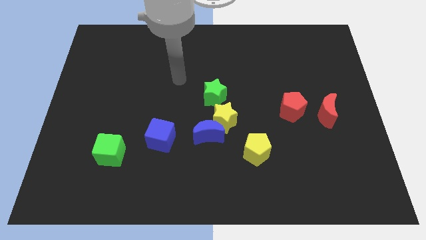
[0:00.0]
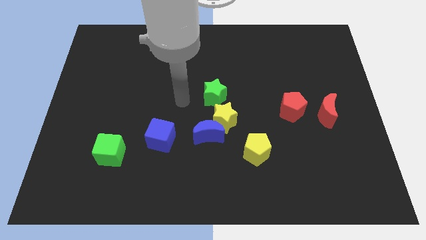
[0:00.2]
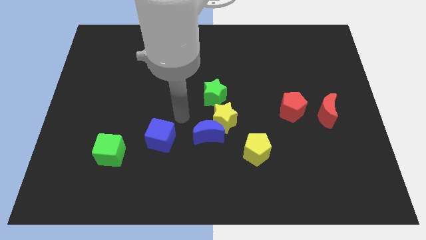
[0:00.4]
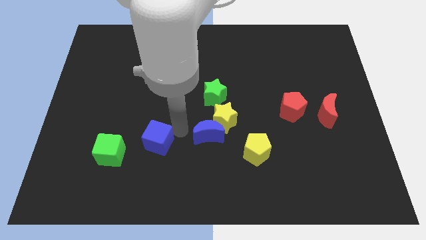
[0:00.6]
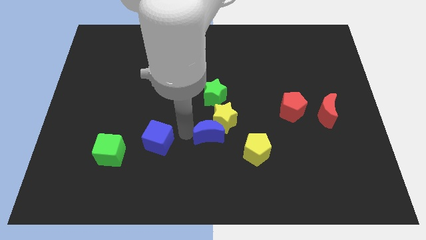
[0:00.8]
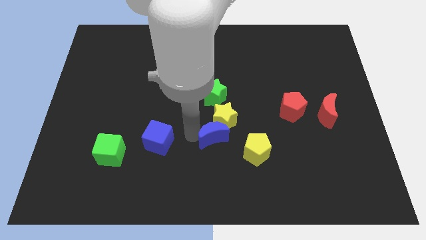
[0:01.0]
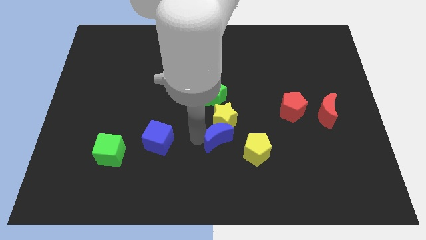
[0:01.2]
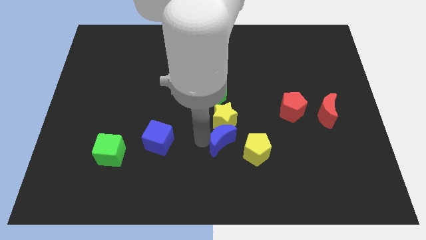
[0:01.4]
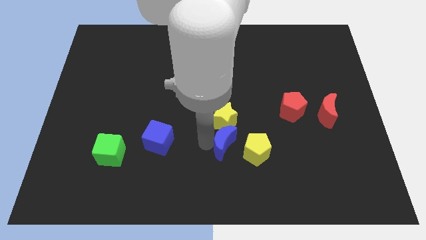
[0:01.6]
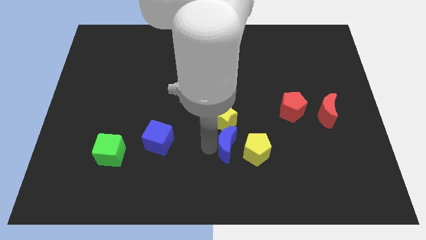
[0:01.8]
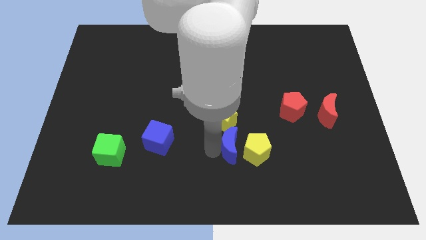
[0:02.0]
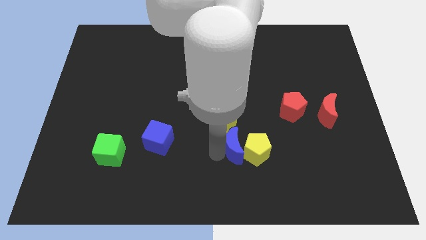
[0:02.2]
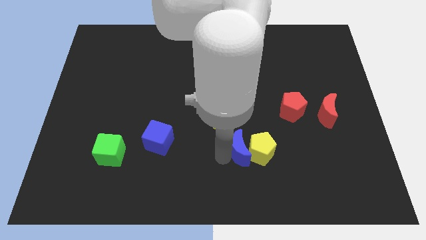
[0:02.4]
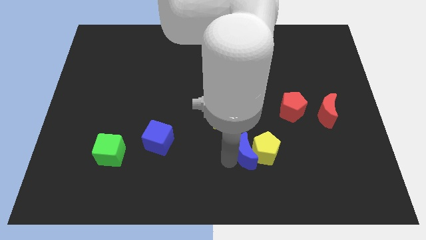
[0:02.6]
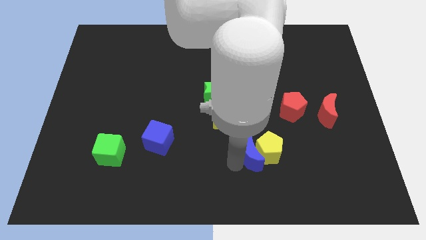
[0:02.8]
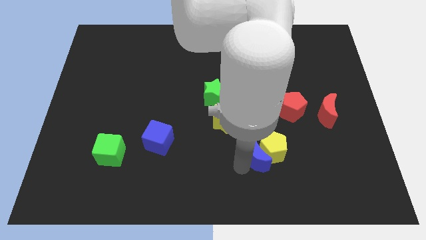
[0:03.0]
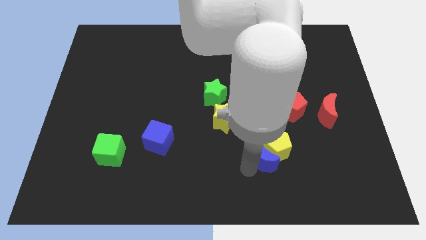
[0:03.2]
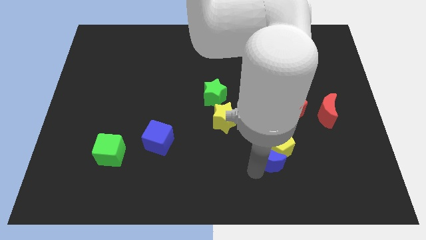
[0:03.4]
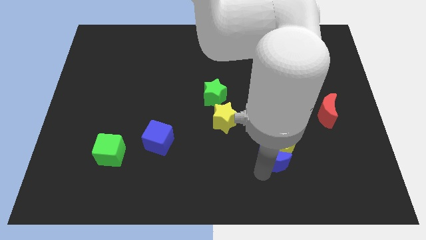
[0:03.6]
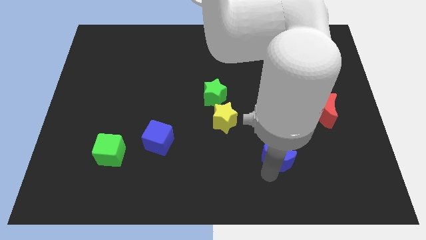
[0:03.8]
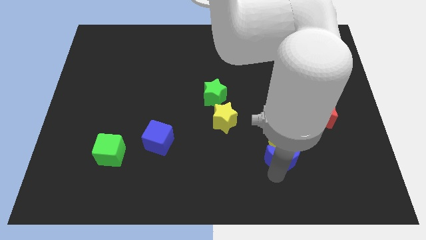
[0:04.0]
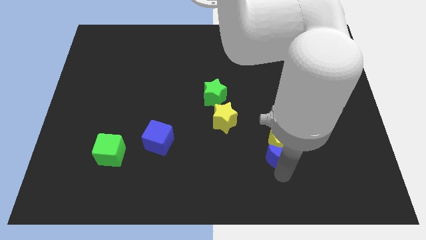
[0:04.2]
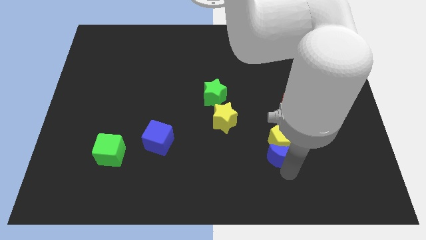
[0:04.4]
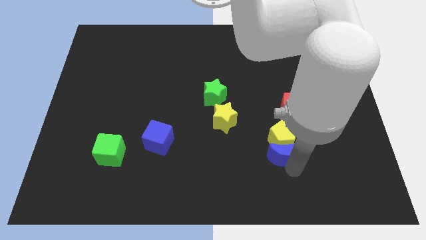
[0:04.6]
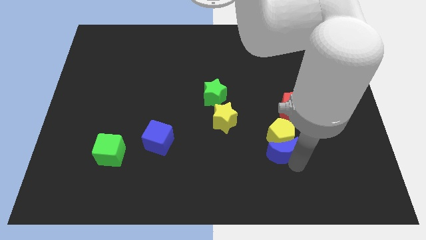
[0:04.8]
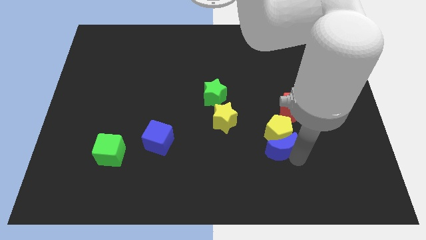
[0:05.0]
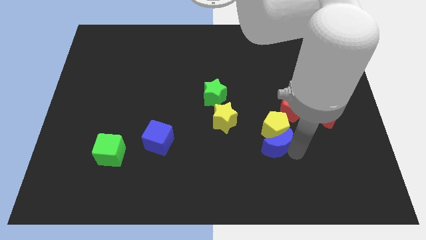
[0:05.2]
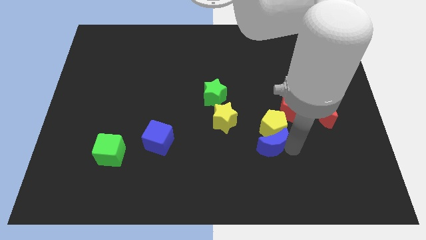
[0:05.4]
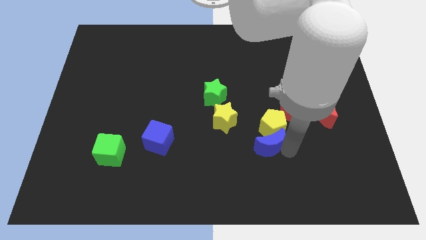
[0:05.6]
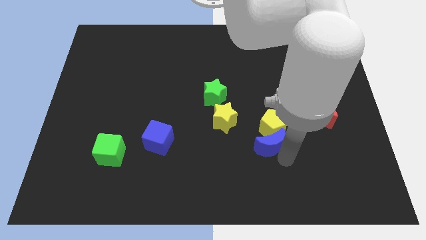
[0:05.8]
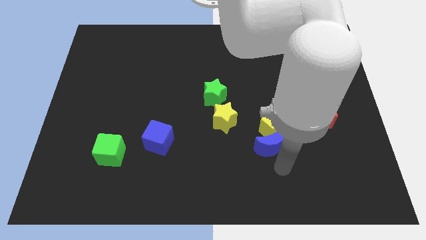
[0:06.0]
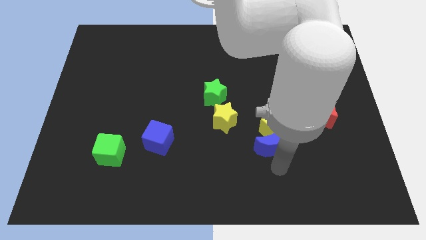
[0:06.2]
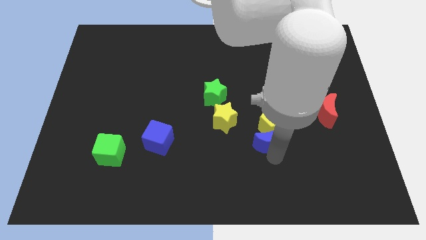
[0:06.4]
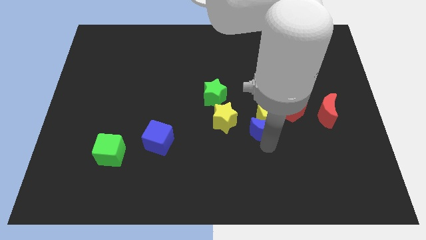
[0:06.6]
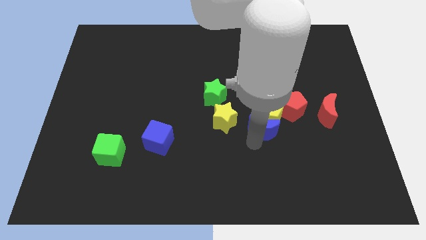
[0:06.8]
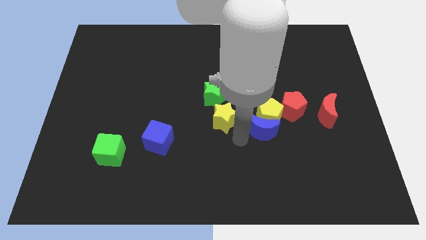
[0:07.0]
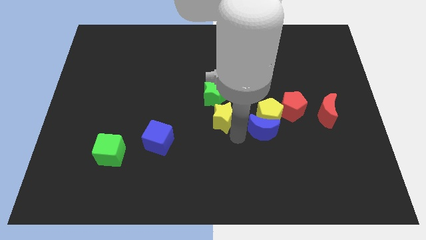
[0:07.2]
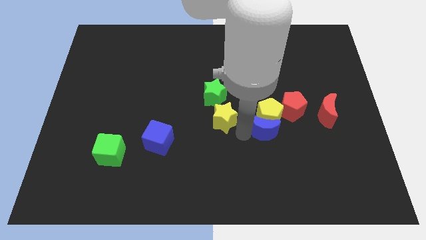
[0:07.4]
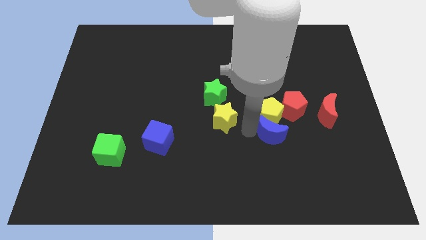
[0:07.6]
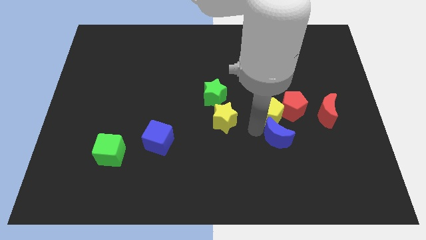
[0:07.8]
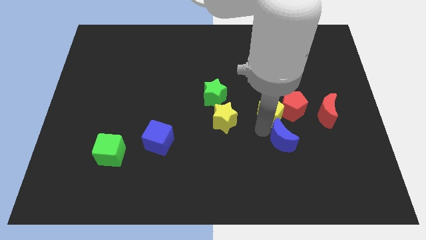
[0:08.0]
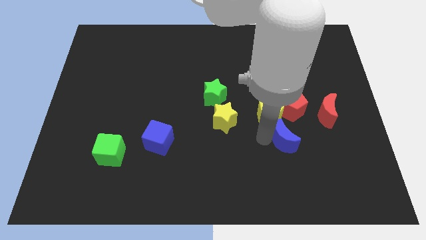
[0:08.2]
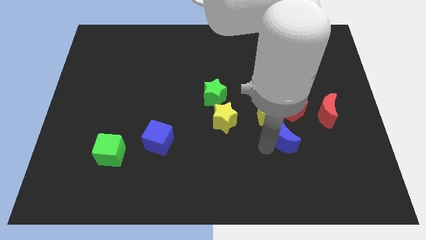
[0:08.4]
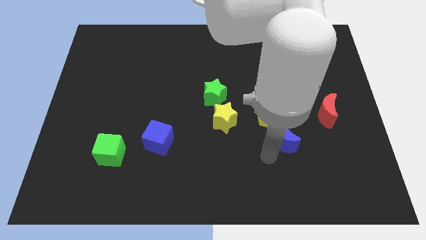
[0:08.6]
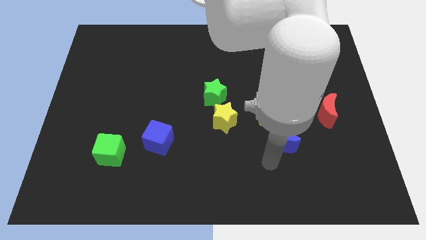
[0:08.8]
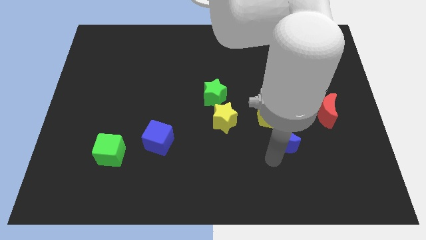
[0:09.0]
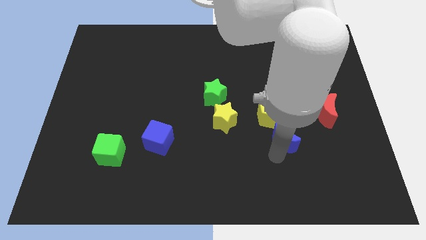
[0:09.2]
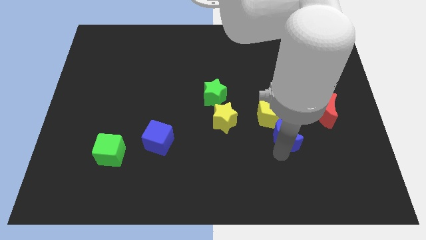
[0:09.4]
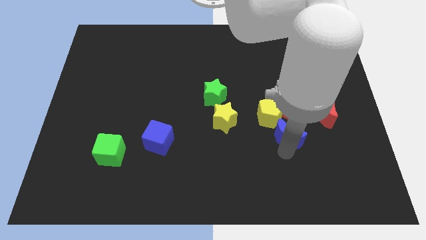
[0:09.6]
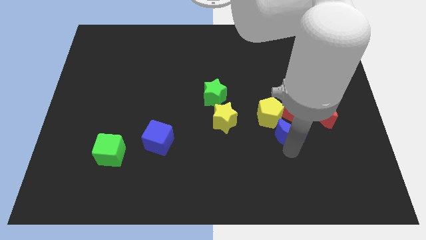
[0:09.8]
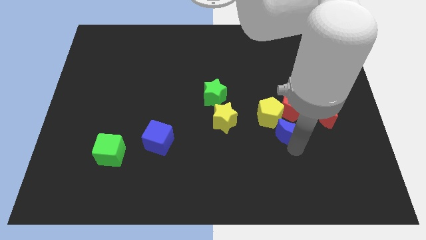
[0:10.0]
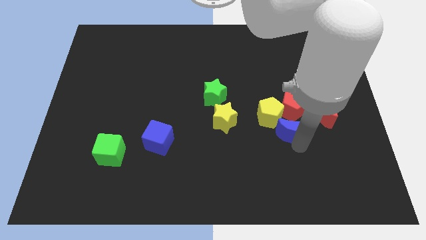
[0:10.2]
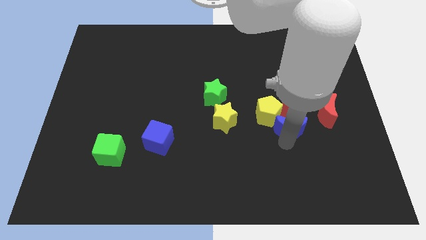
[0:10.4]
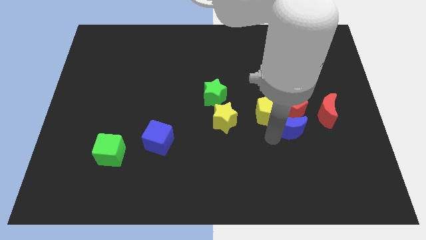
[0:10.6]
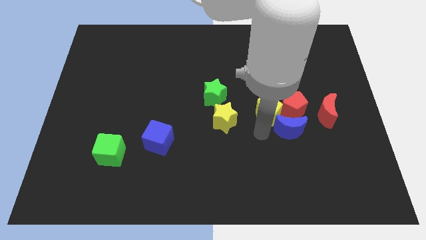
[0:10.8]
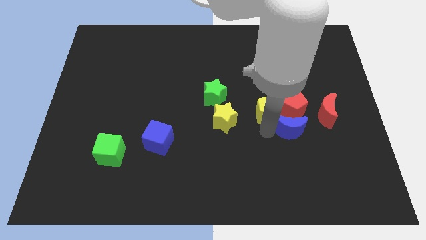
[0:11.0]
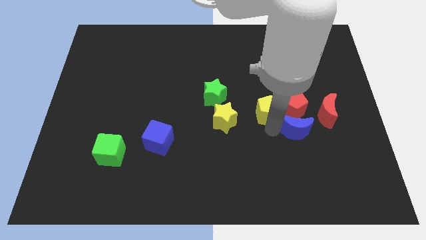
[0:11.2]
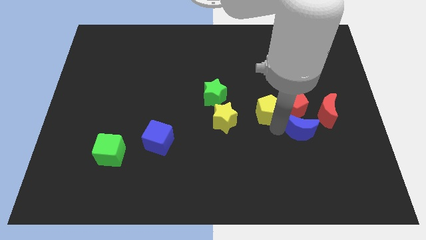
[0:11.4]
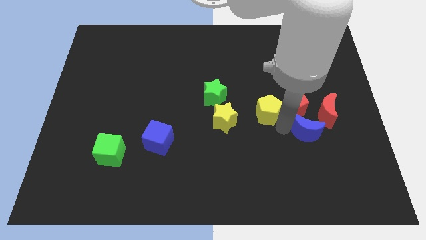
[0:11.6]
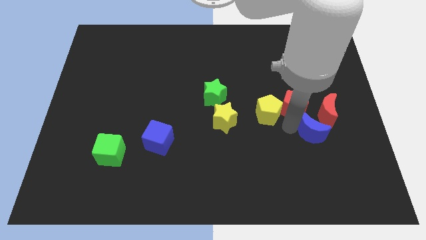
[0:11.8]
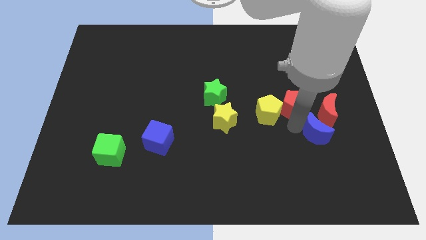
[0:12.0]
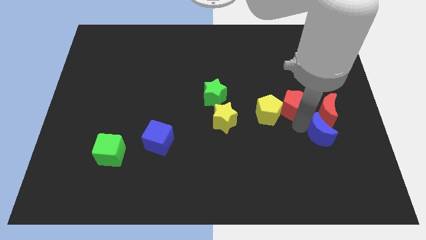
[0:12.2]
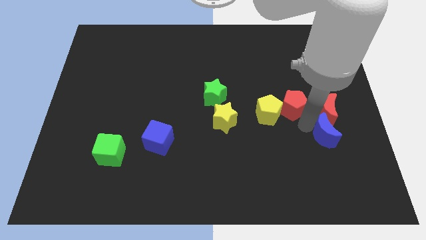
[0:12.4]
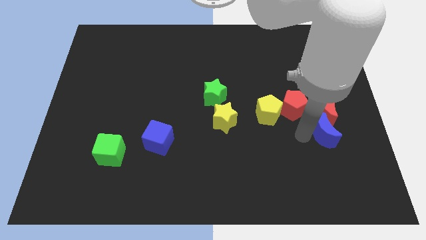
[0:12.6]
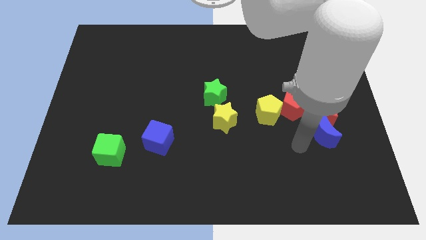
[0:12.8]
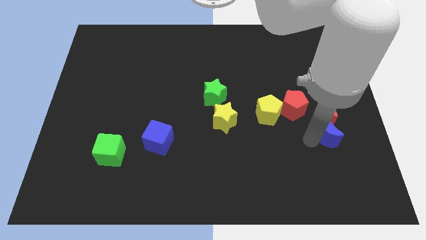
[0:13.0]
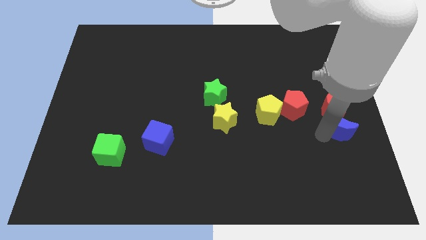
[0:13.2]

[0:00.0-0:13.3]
push the blue moon to the right side

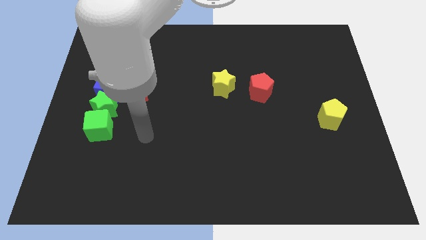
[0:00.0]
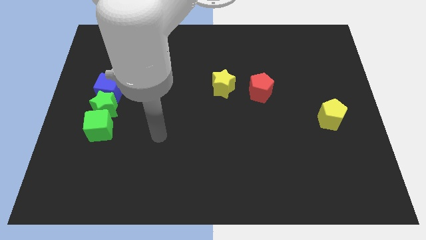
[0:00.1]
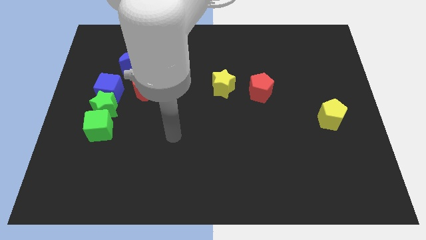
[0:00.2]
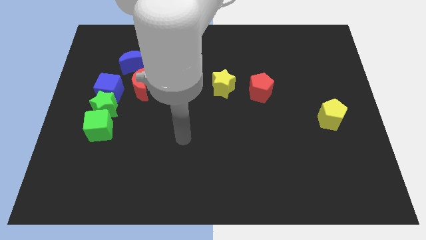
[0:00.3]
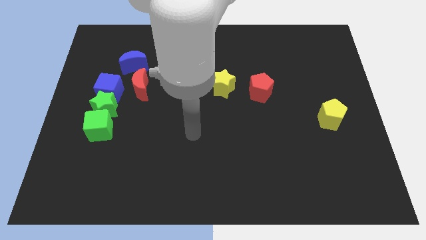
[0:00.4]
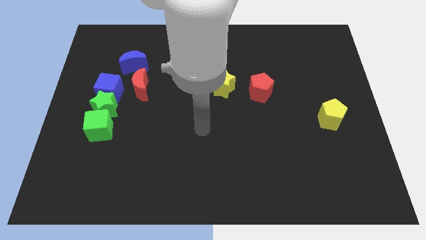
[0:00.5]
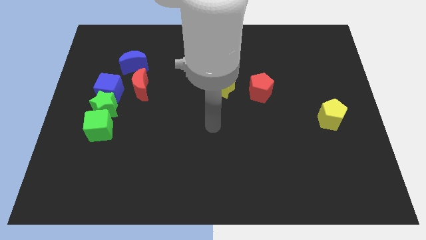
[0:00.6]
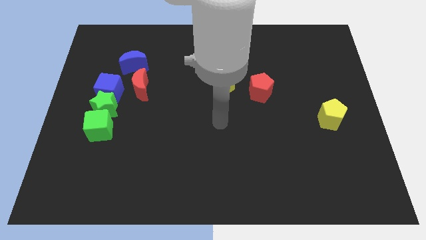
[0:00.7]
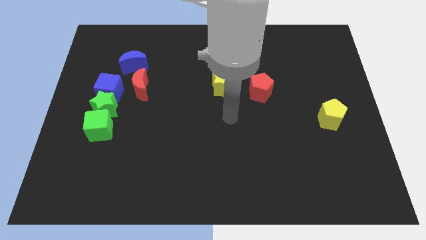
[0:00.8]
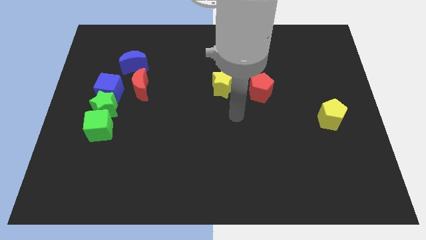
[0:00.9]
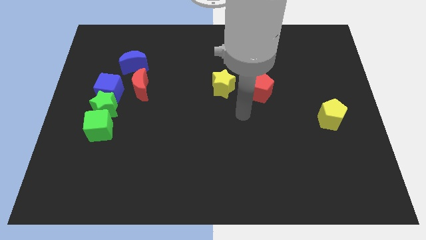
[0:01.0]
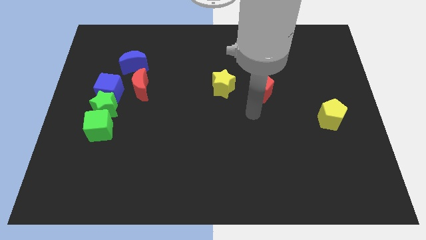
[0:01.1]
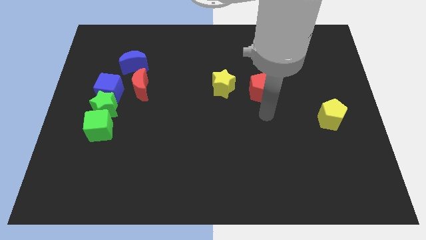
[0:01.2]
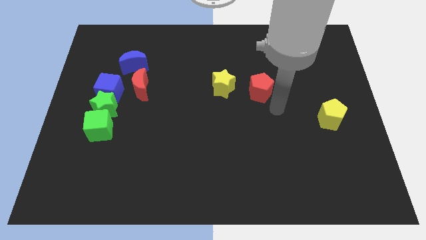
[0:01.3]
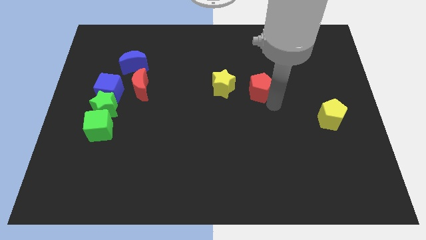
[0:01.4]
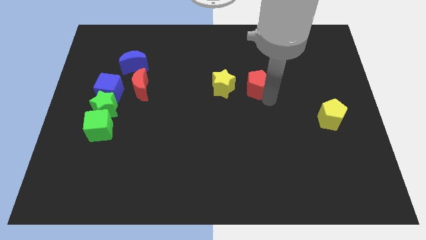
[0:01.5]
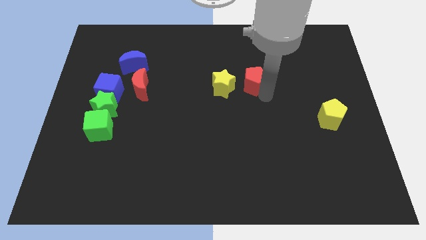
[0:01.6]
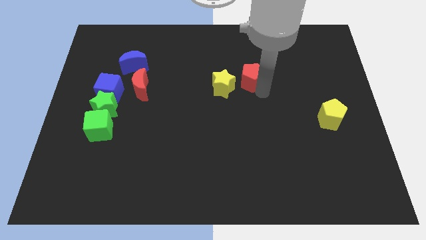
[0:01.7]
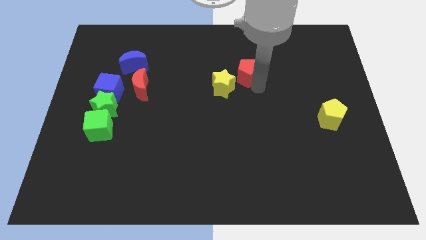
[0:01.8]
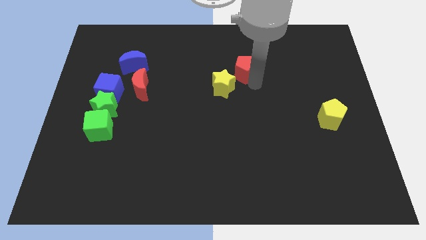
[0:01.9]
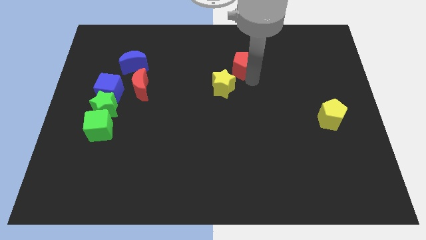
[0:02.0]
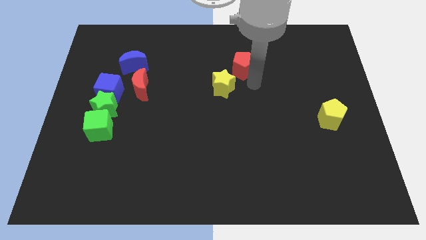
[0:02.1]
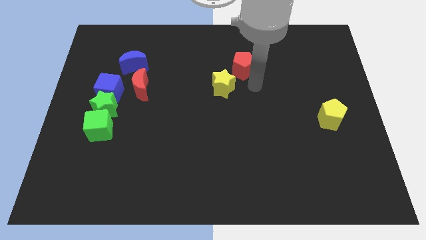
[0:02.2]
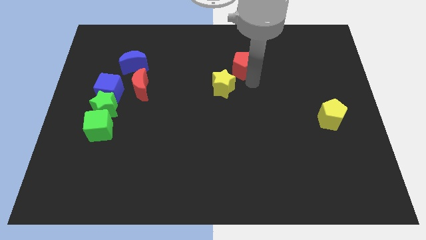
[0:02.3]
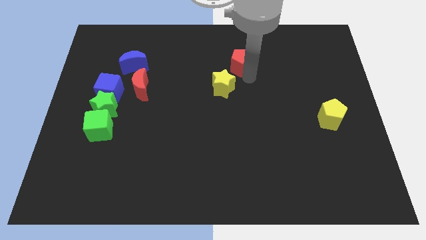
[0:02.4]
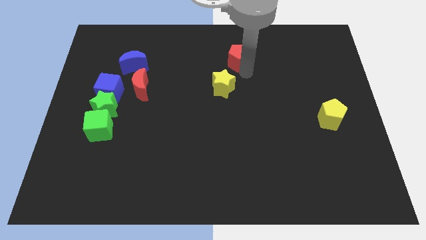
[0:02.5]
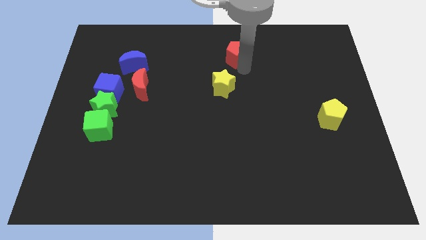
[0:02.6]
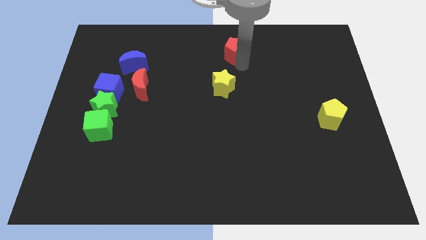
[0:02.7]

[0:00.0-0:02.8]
move the red pentagon to the top side
